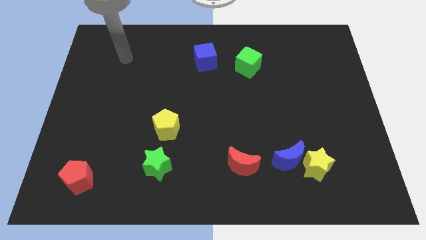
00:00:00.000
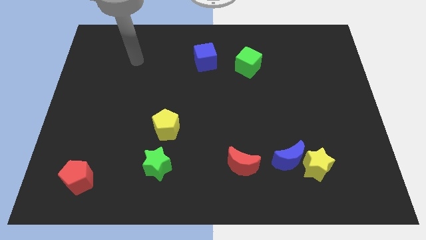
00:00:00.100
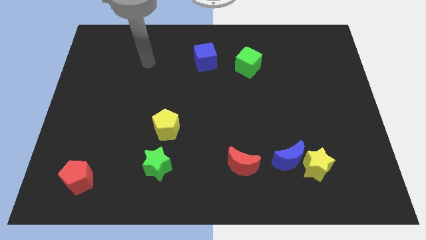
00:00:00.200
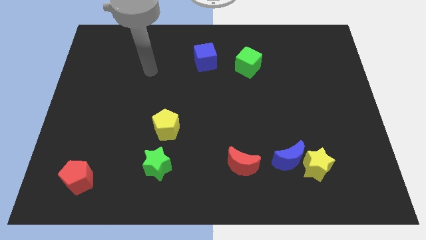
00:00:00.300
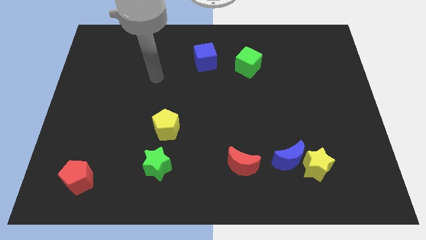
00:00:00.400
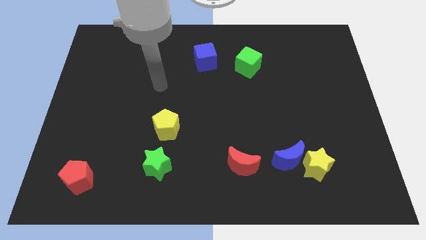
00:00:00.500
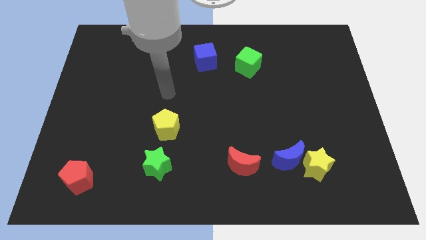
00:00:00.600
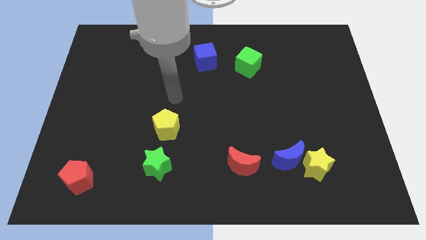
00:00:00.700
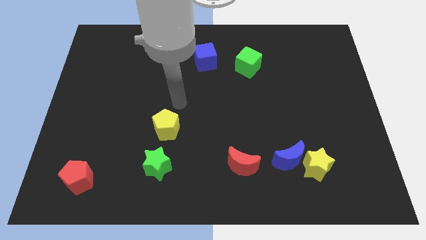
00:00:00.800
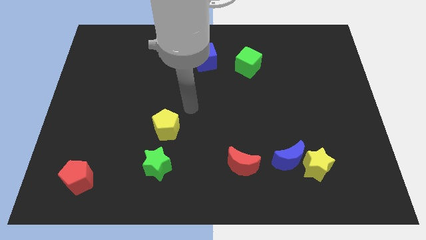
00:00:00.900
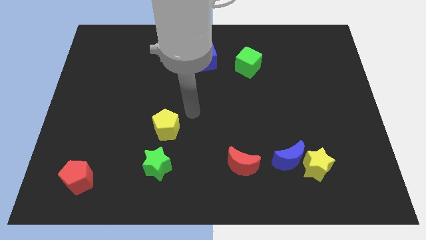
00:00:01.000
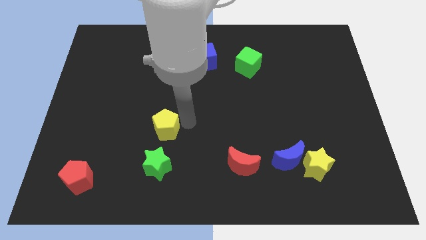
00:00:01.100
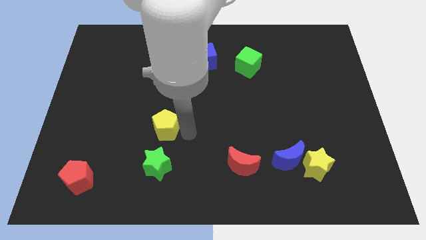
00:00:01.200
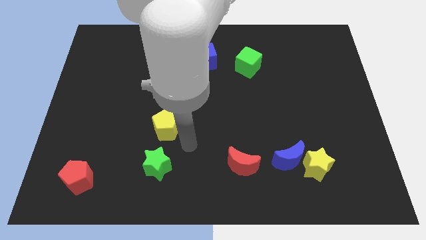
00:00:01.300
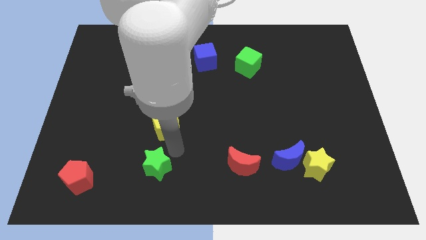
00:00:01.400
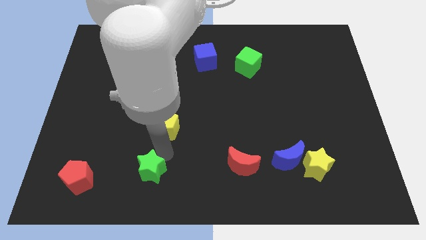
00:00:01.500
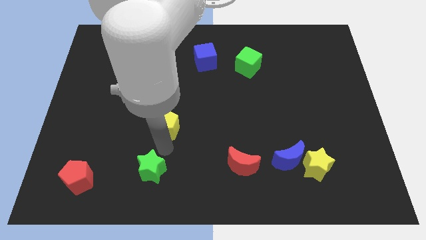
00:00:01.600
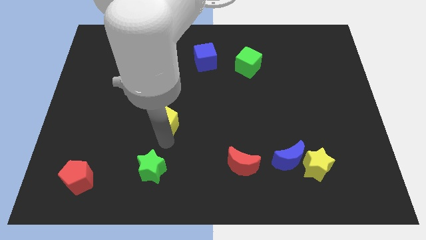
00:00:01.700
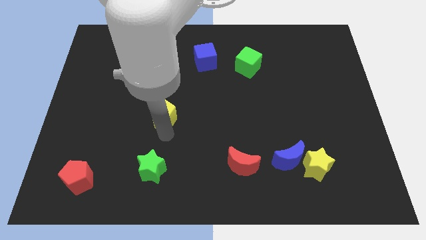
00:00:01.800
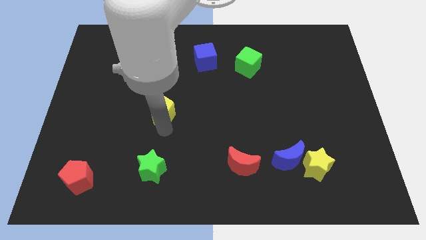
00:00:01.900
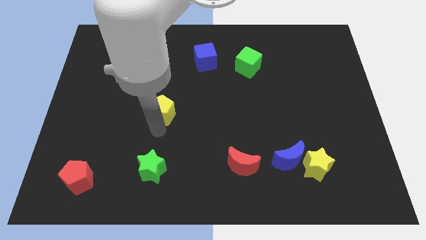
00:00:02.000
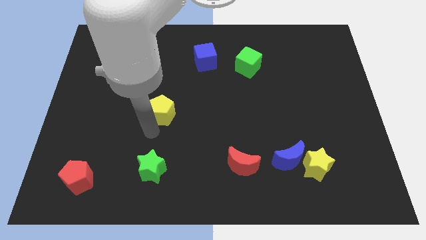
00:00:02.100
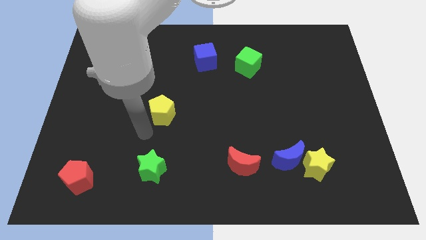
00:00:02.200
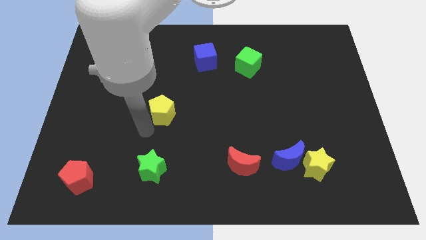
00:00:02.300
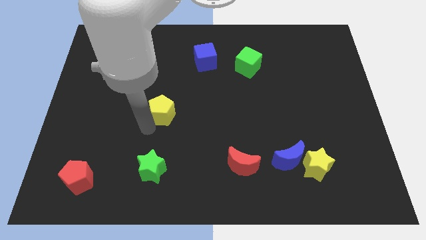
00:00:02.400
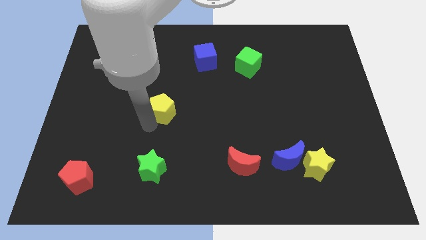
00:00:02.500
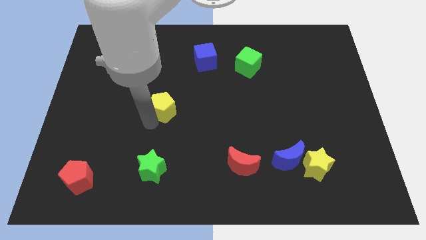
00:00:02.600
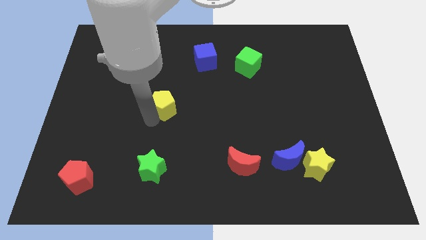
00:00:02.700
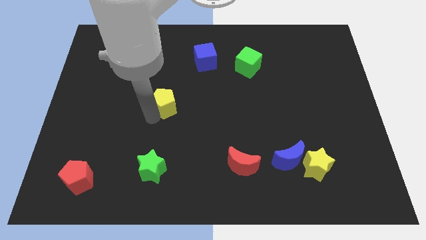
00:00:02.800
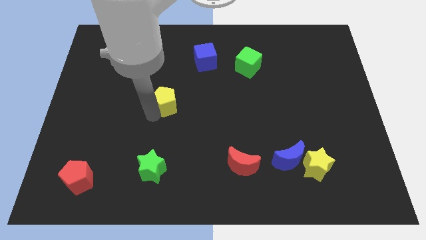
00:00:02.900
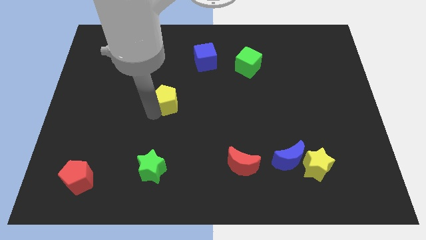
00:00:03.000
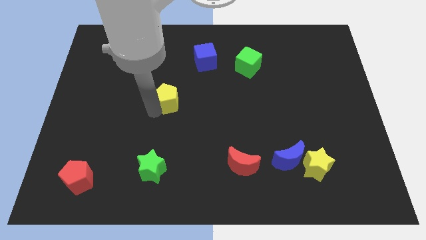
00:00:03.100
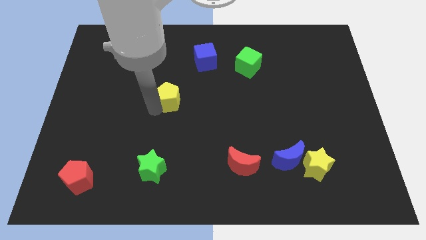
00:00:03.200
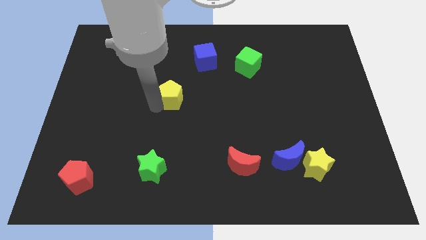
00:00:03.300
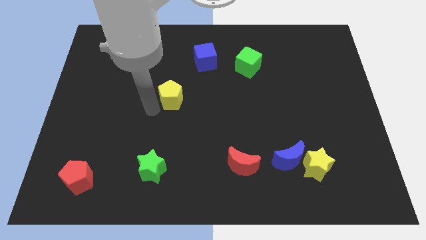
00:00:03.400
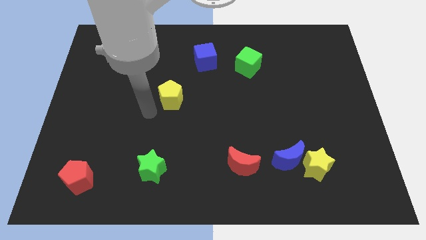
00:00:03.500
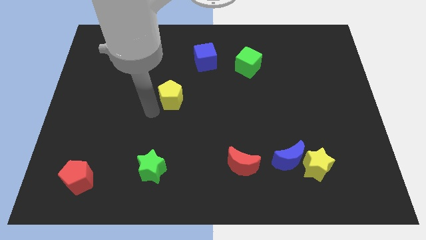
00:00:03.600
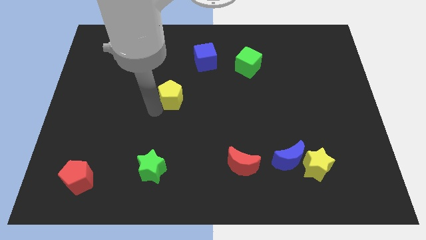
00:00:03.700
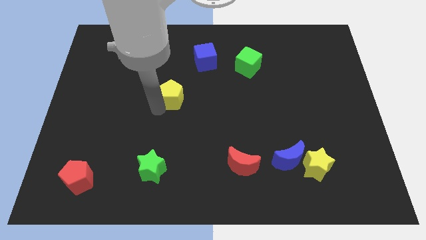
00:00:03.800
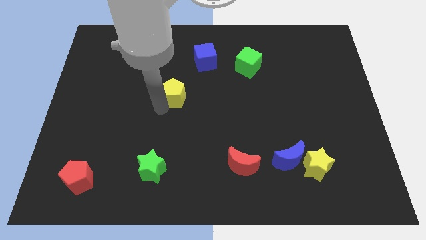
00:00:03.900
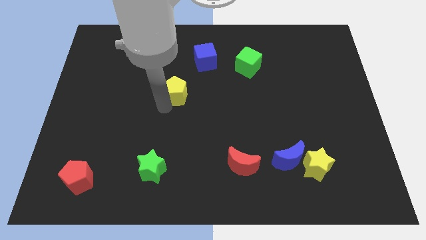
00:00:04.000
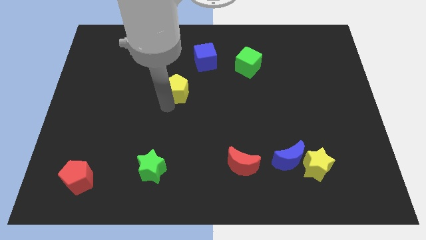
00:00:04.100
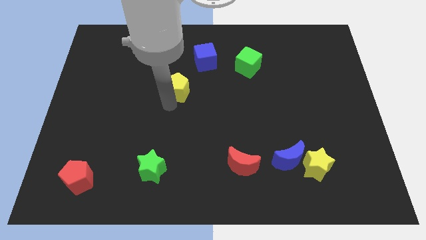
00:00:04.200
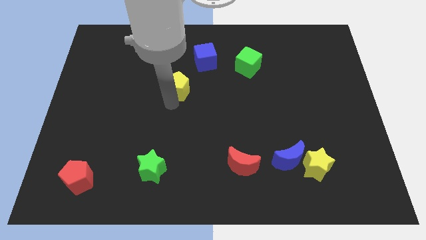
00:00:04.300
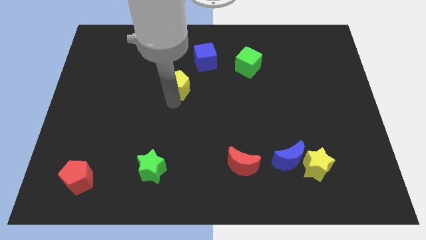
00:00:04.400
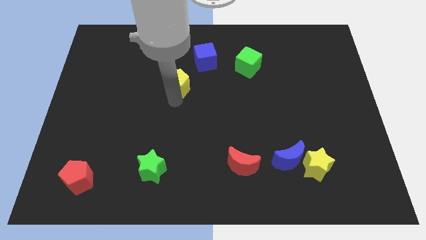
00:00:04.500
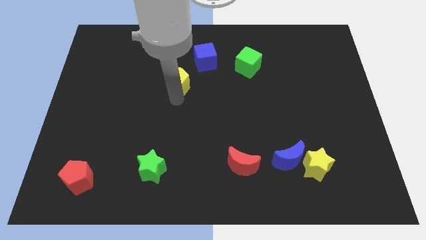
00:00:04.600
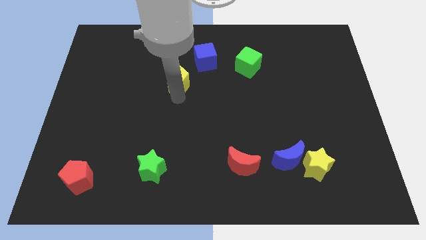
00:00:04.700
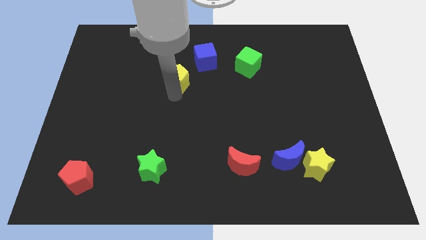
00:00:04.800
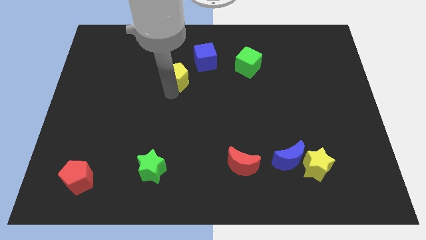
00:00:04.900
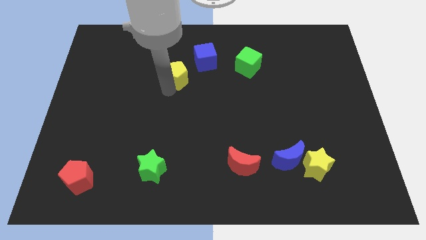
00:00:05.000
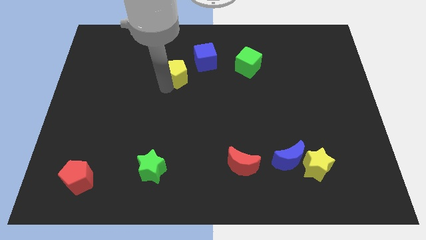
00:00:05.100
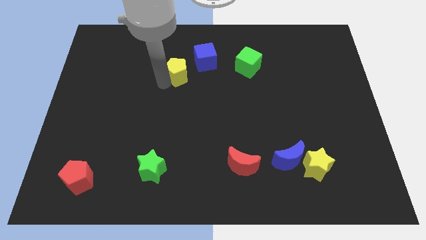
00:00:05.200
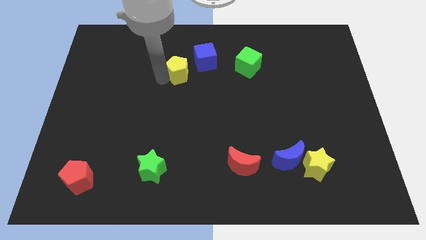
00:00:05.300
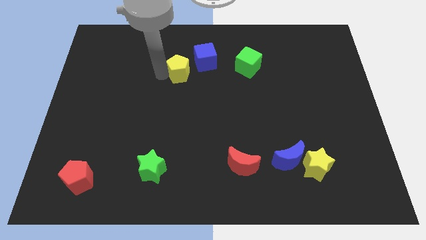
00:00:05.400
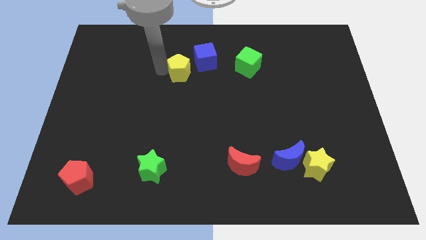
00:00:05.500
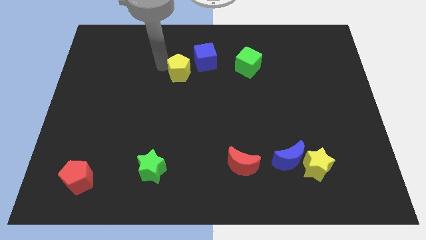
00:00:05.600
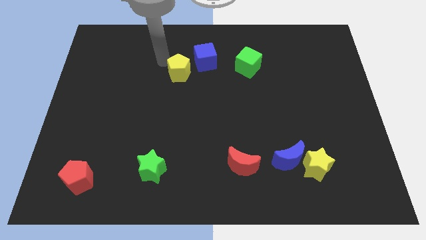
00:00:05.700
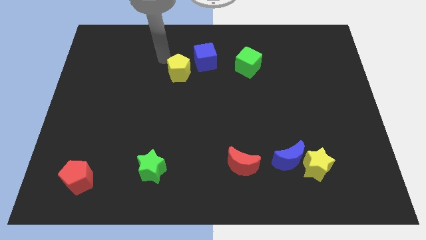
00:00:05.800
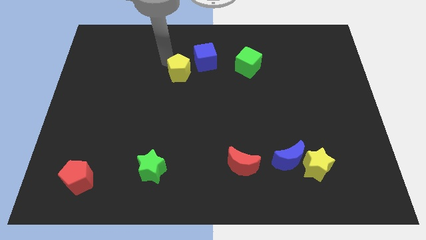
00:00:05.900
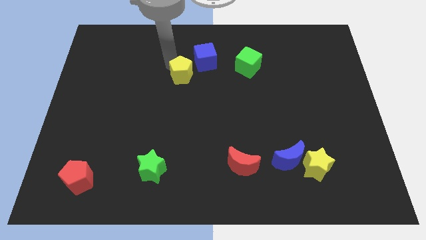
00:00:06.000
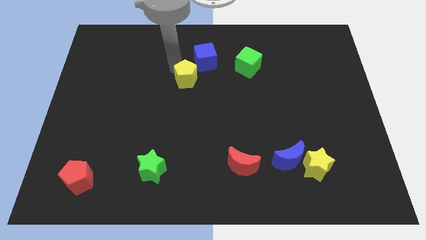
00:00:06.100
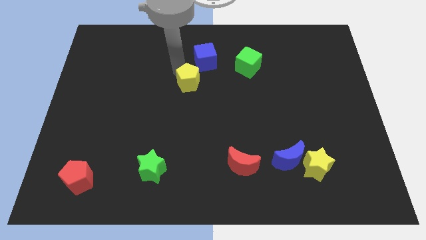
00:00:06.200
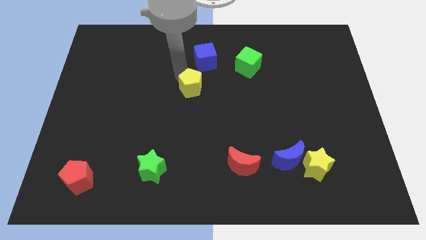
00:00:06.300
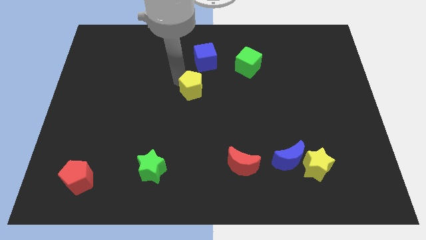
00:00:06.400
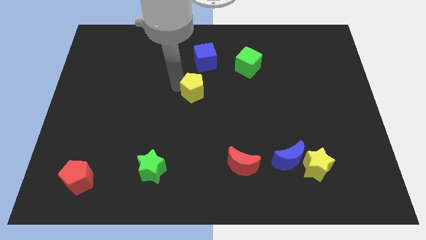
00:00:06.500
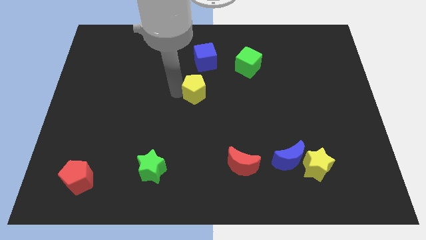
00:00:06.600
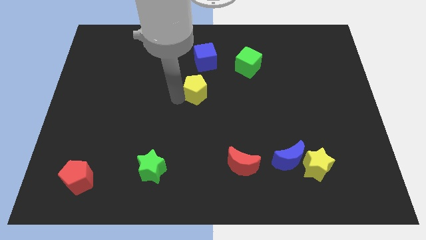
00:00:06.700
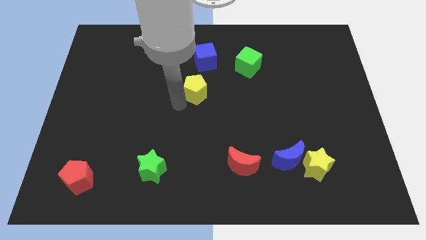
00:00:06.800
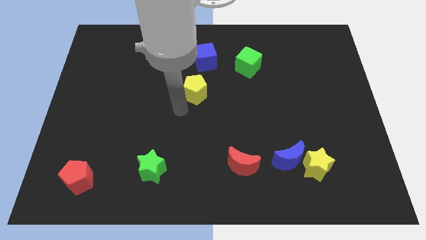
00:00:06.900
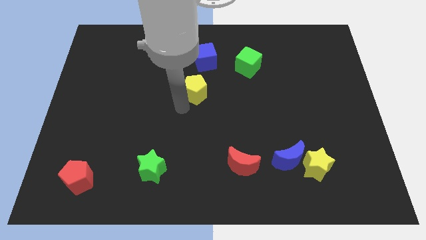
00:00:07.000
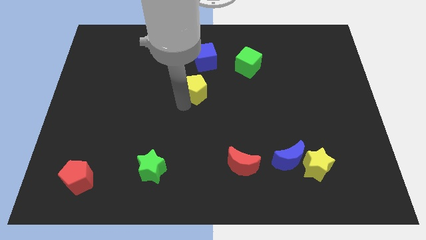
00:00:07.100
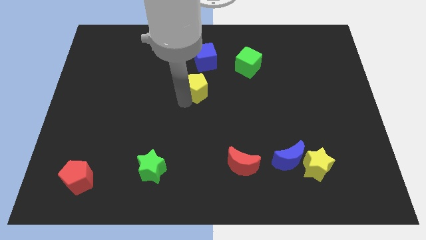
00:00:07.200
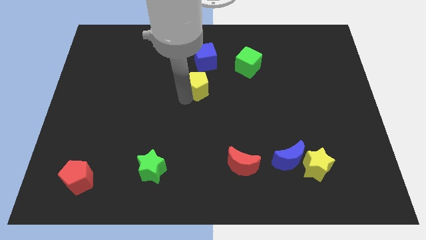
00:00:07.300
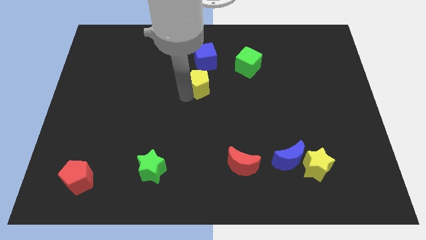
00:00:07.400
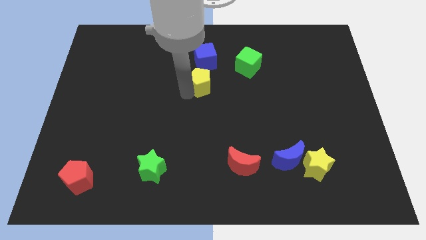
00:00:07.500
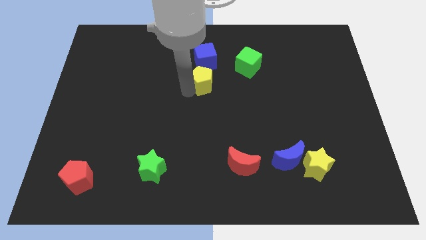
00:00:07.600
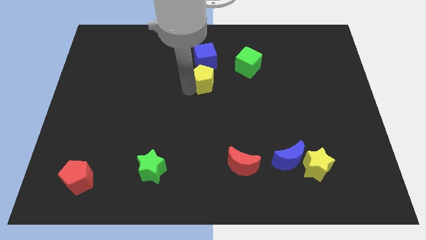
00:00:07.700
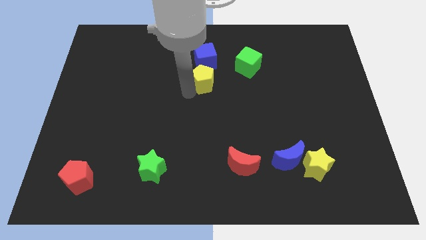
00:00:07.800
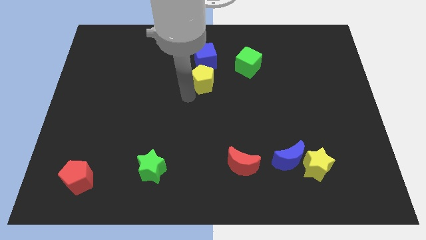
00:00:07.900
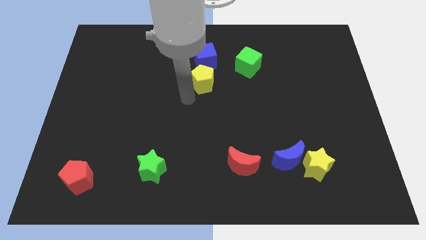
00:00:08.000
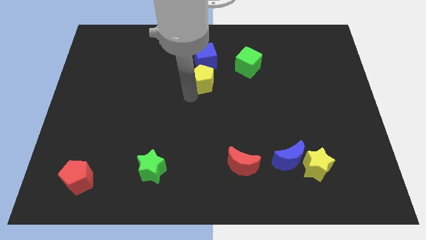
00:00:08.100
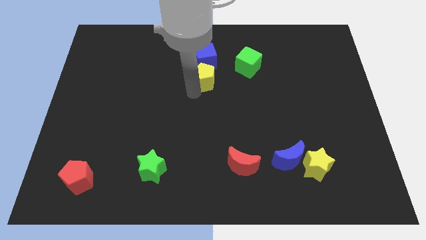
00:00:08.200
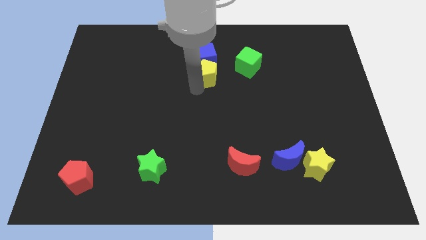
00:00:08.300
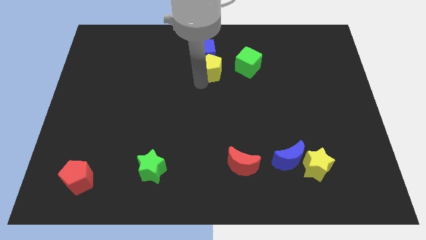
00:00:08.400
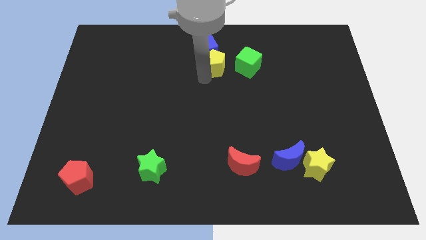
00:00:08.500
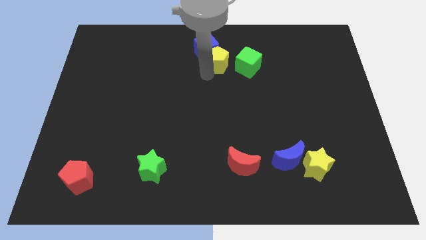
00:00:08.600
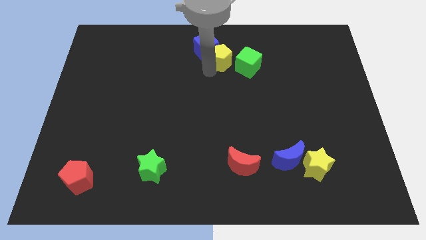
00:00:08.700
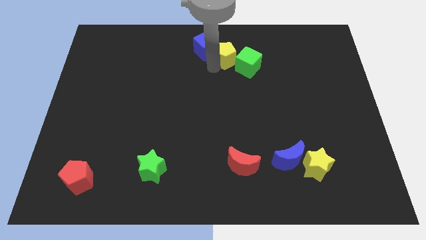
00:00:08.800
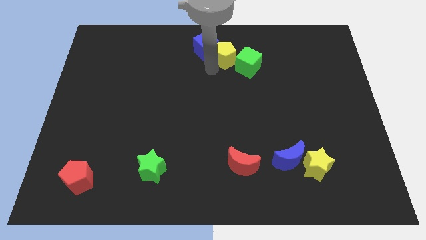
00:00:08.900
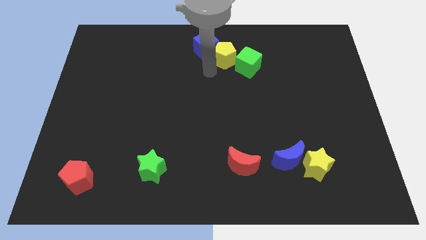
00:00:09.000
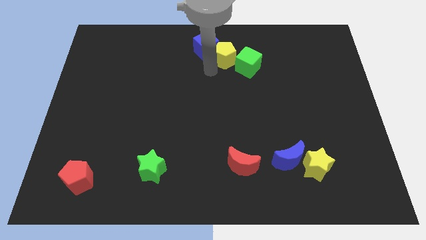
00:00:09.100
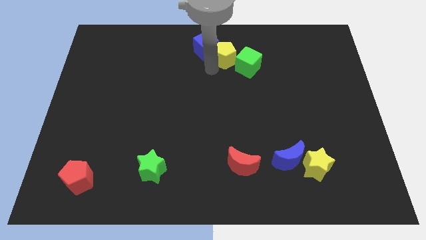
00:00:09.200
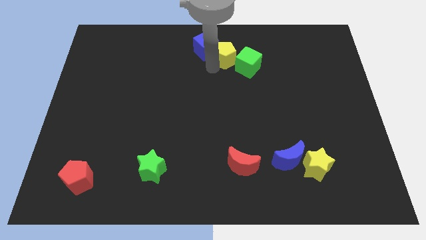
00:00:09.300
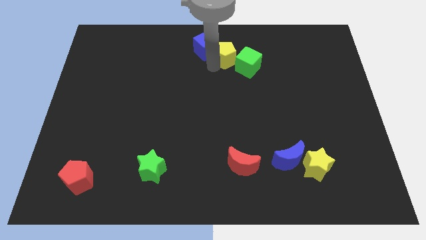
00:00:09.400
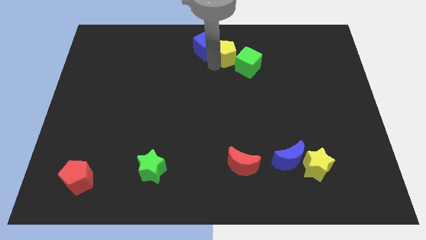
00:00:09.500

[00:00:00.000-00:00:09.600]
move the yellow pentagon to the top
